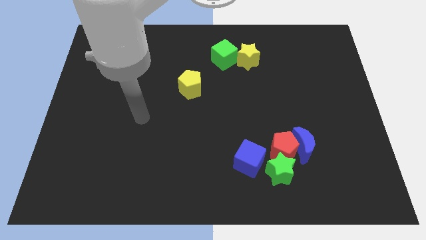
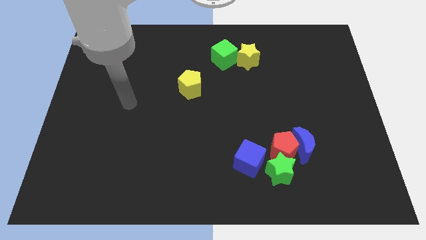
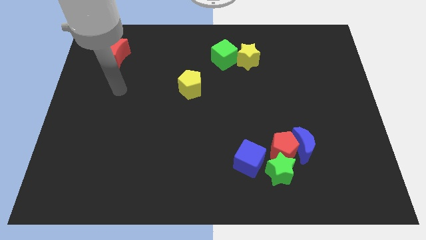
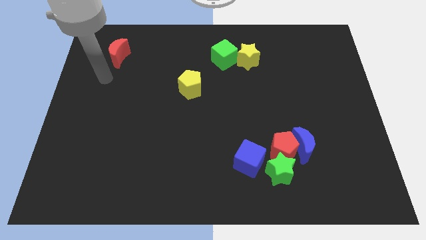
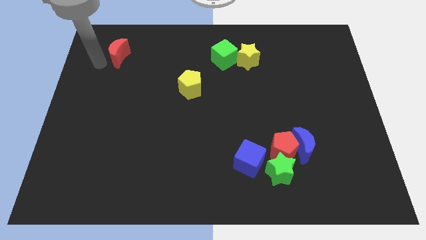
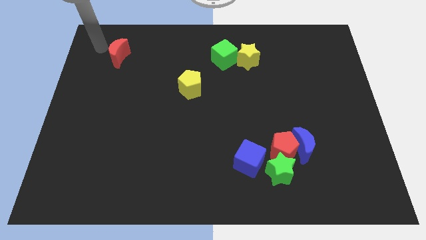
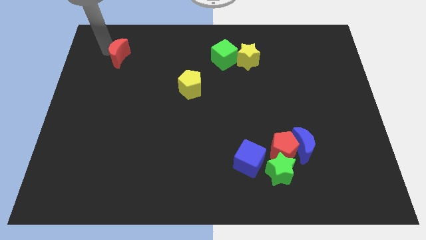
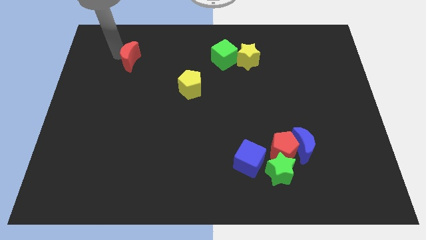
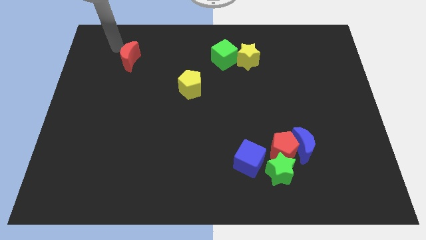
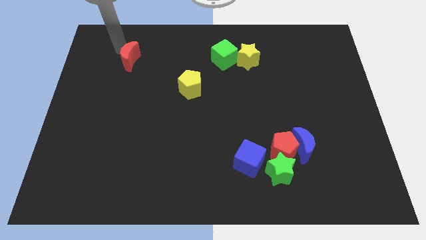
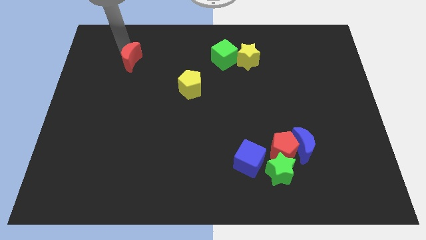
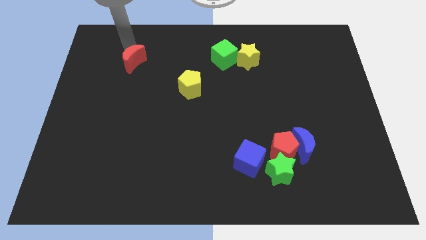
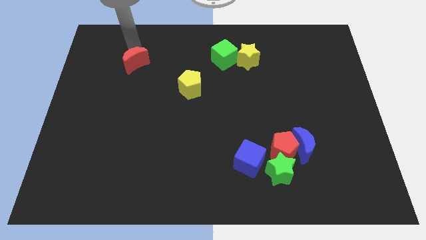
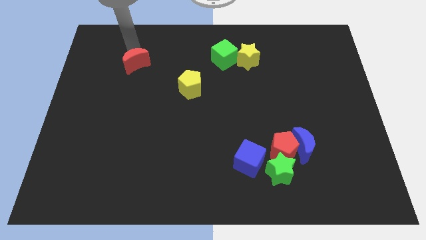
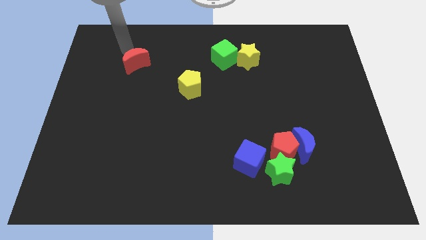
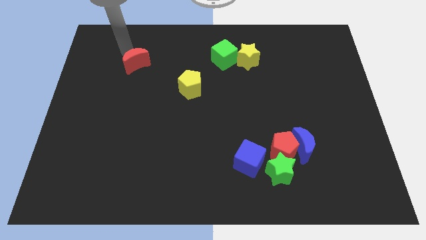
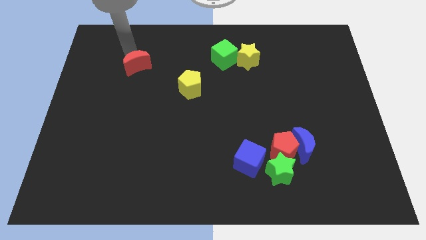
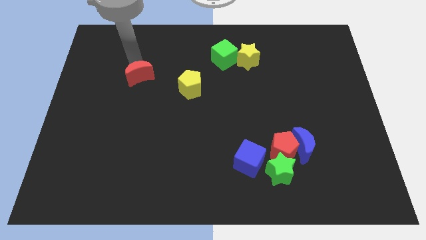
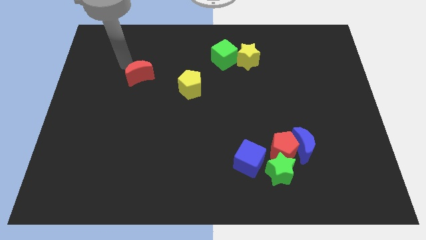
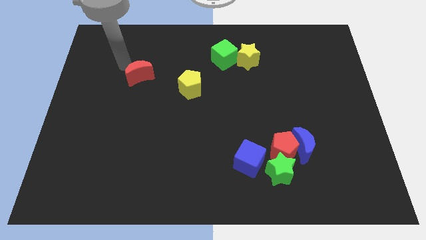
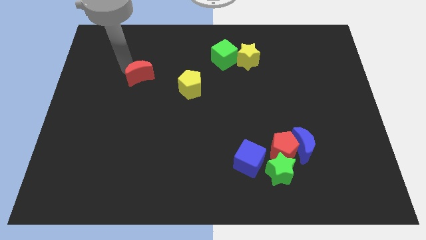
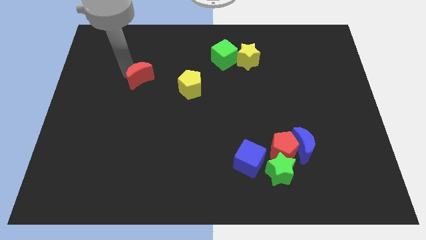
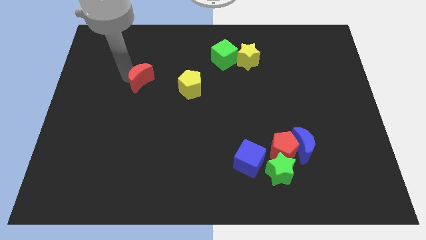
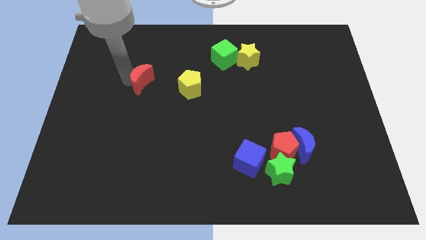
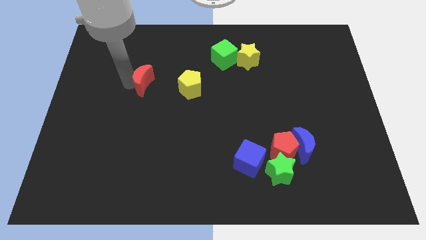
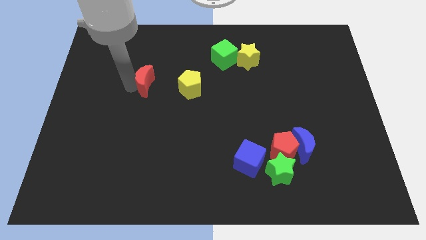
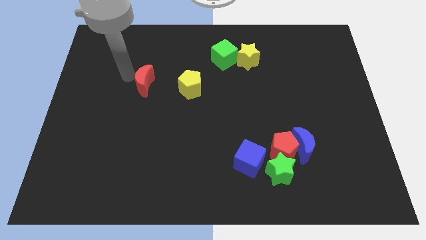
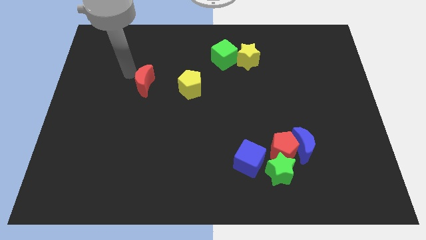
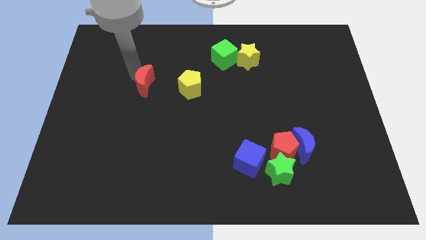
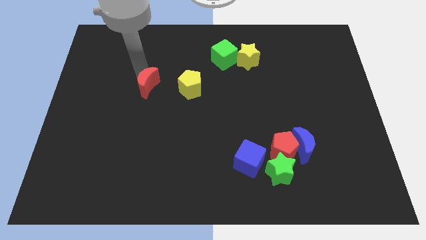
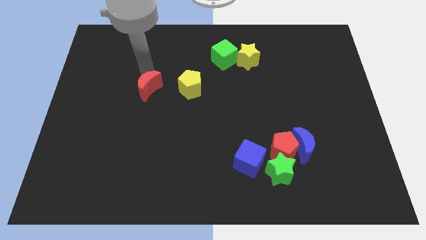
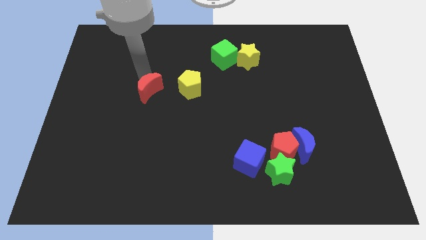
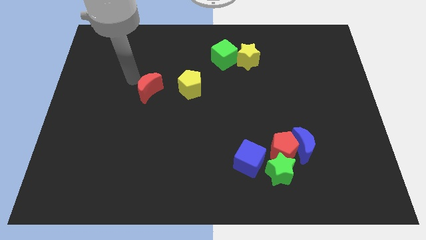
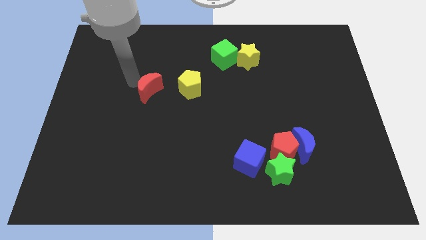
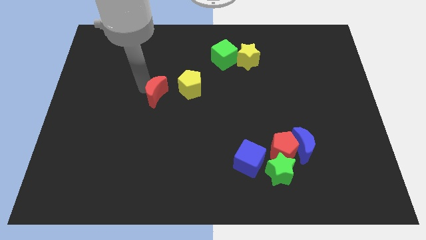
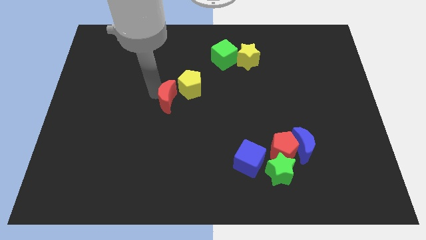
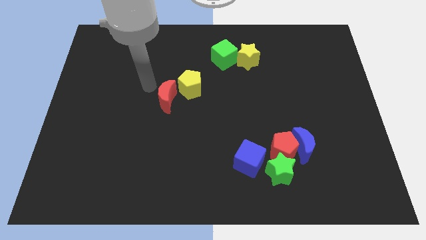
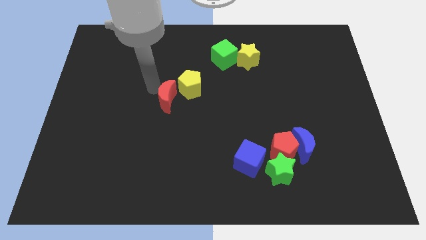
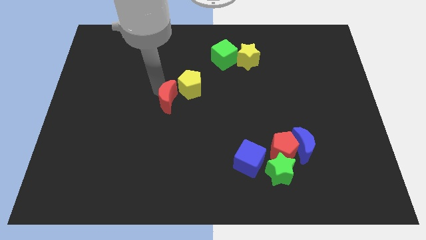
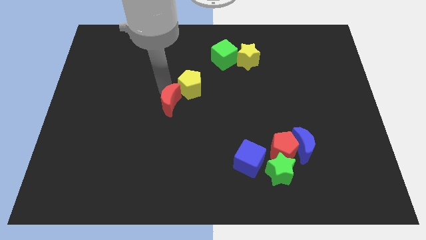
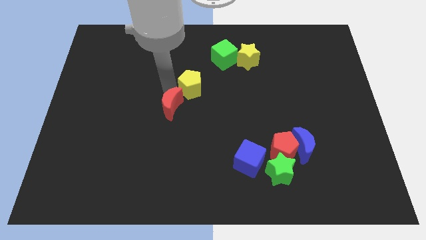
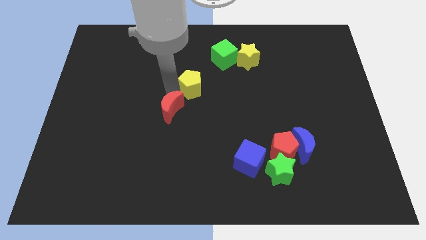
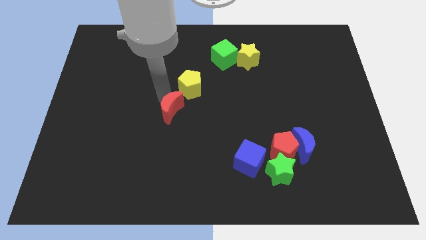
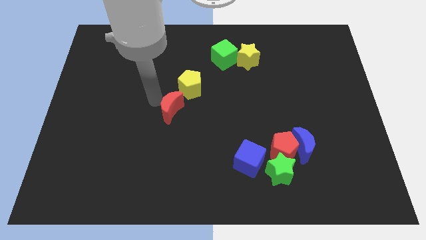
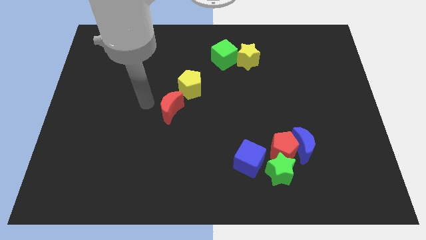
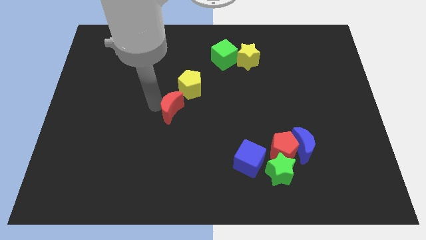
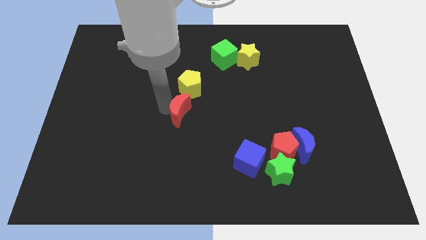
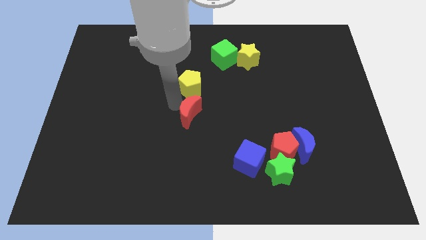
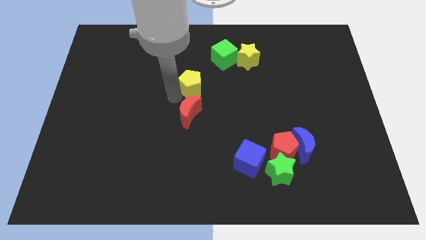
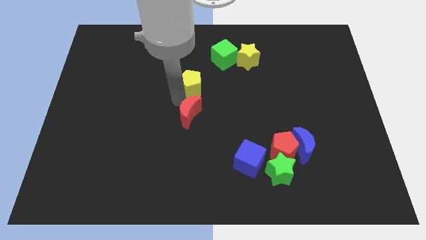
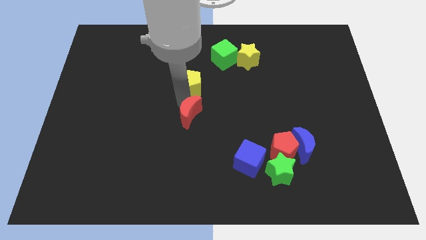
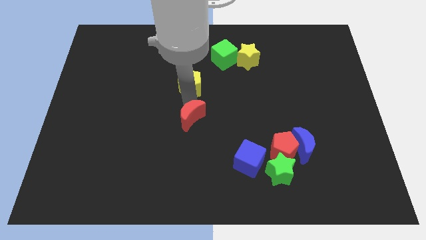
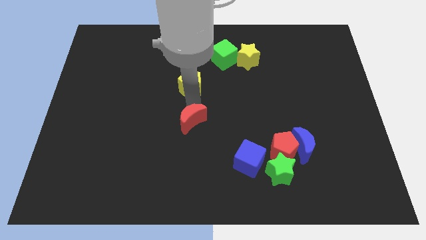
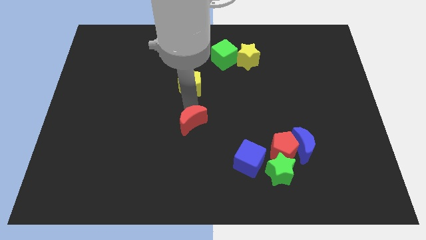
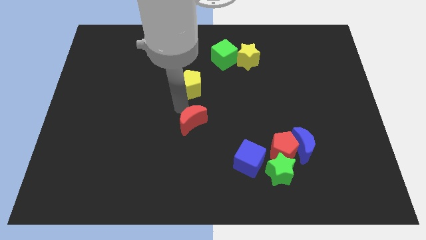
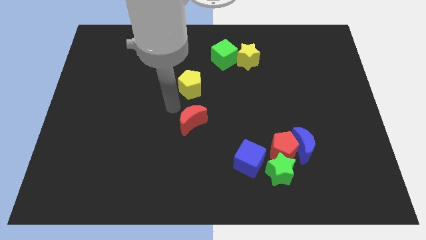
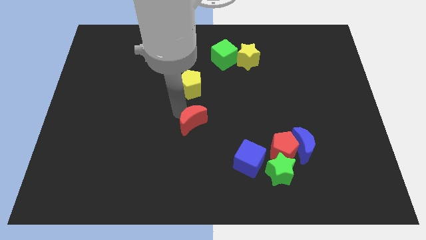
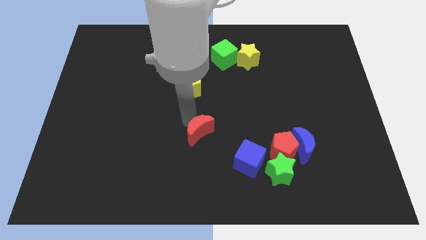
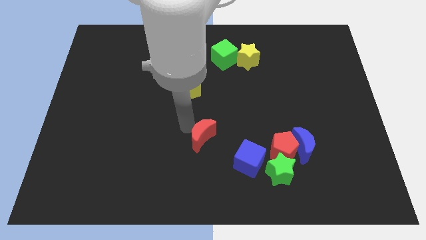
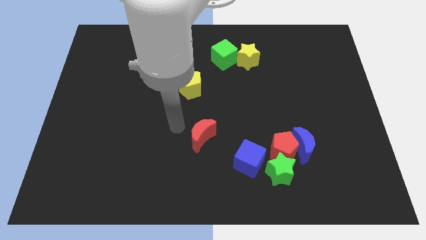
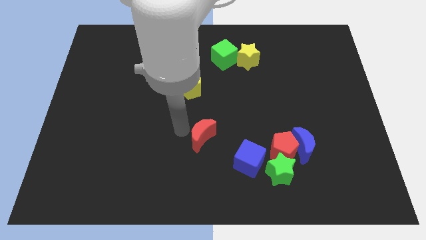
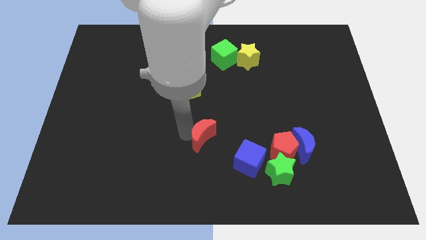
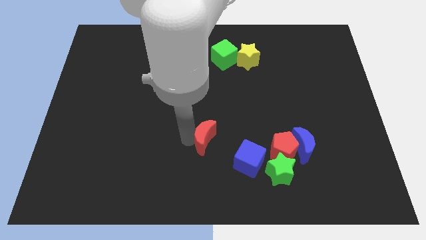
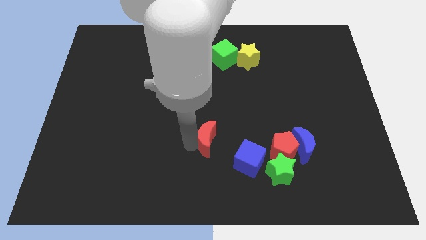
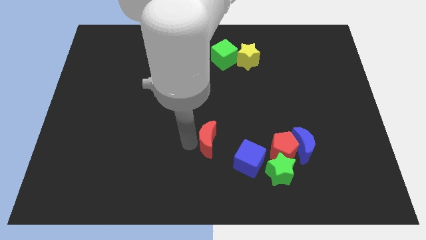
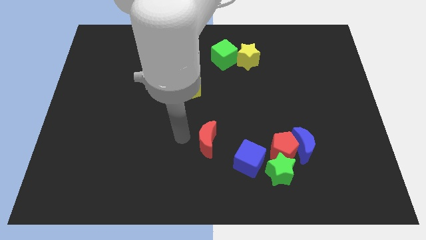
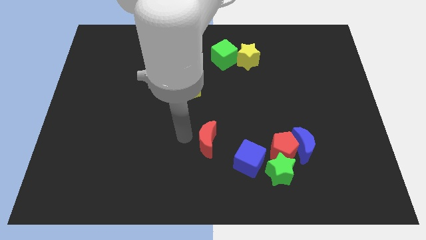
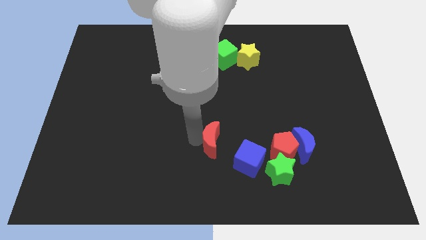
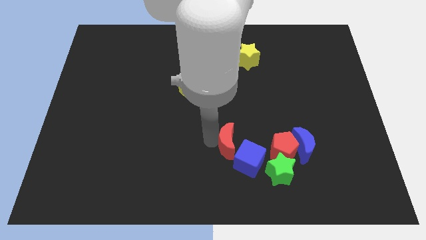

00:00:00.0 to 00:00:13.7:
slide the red moon next to the blue cube
